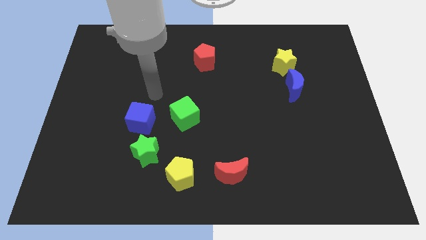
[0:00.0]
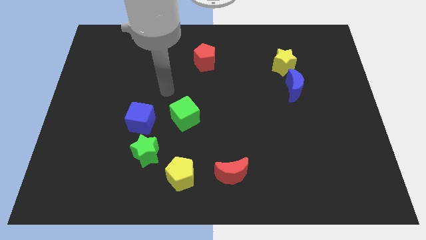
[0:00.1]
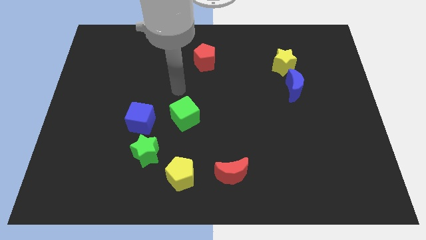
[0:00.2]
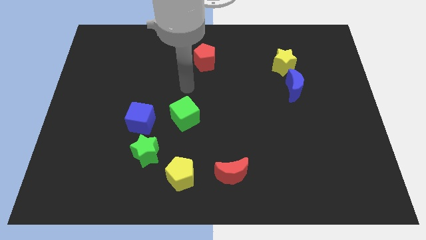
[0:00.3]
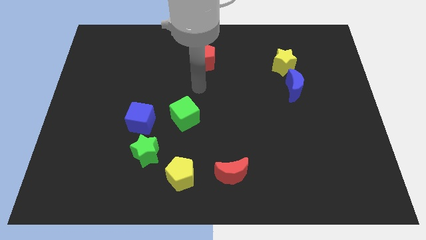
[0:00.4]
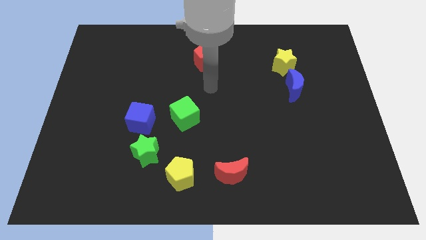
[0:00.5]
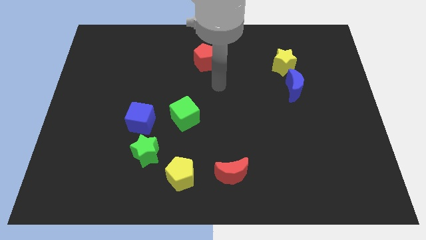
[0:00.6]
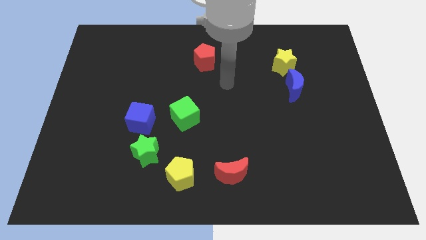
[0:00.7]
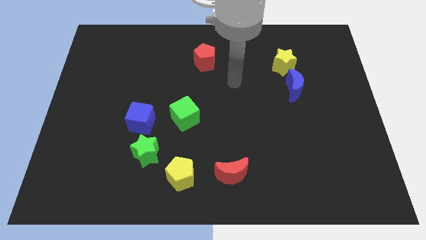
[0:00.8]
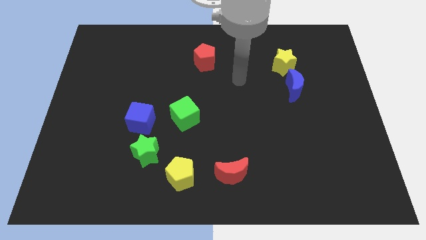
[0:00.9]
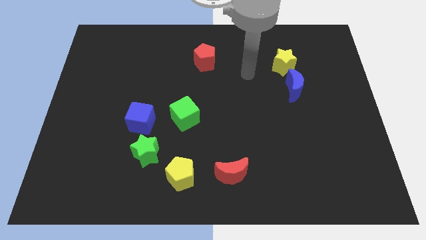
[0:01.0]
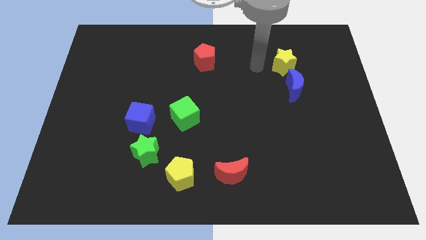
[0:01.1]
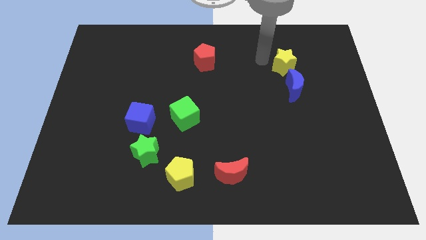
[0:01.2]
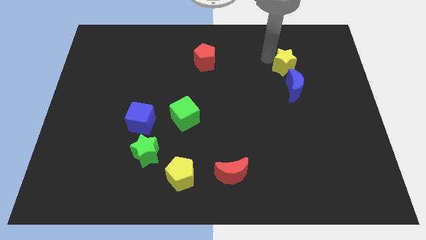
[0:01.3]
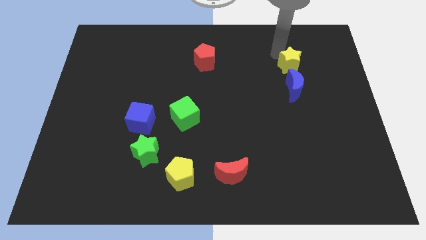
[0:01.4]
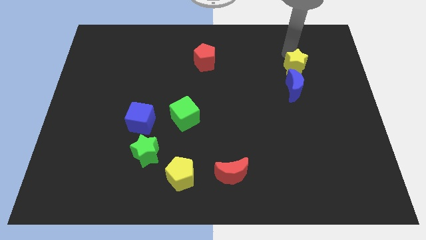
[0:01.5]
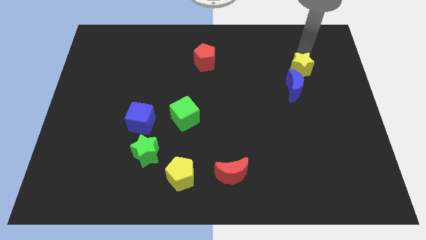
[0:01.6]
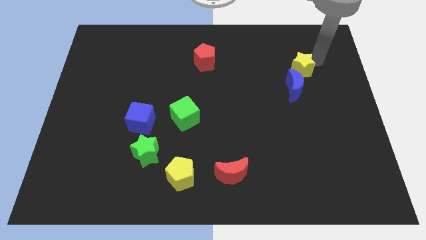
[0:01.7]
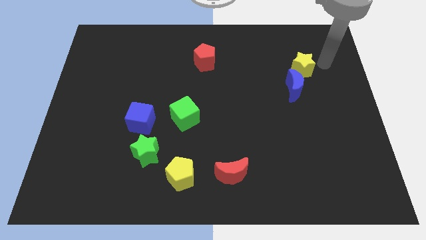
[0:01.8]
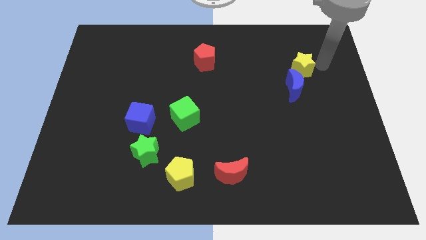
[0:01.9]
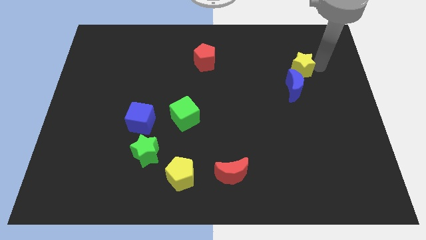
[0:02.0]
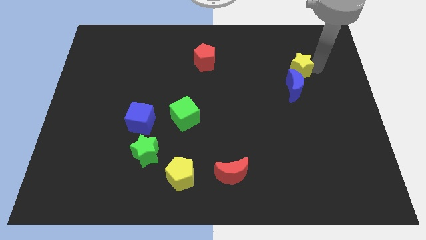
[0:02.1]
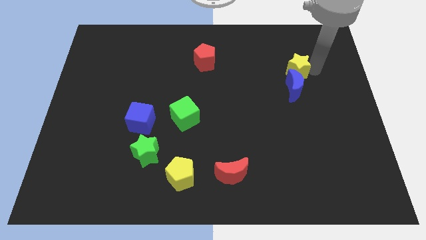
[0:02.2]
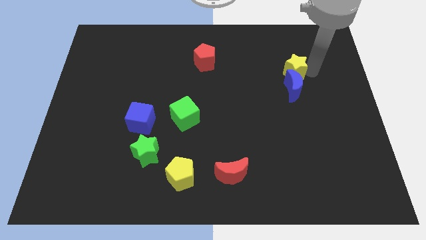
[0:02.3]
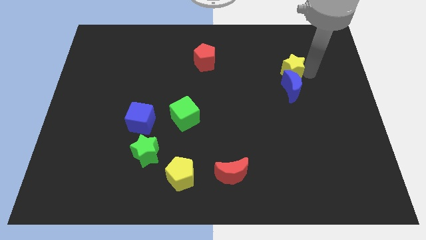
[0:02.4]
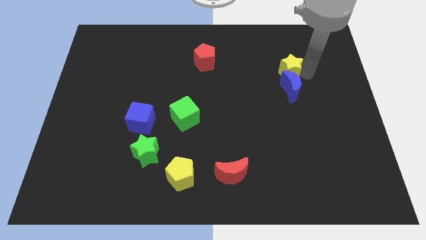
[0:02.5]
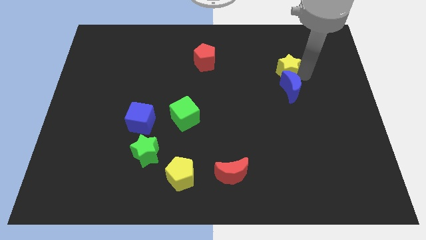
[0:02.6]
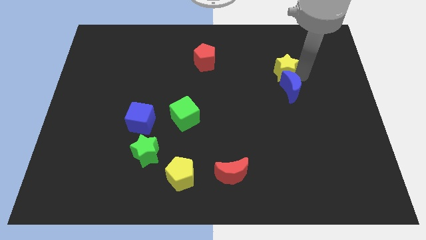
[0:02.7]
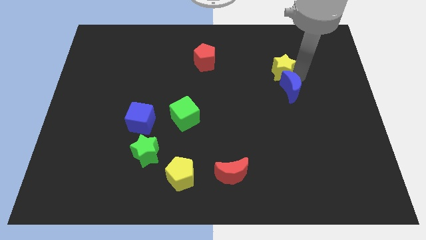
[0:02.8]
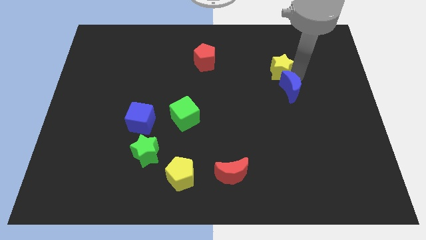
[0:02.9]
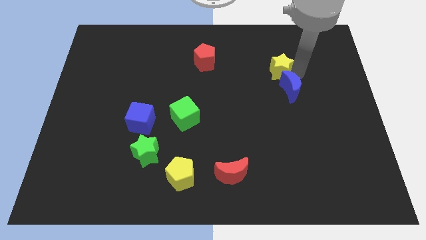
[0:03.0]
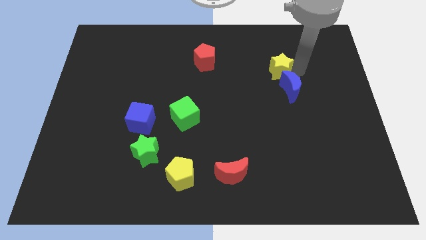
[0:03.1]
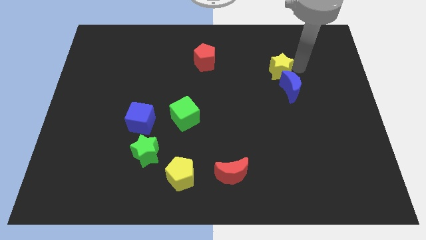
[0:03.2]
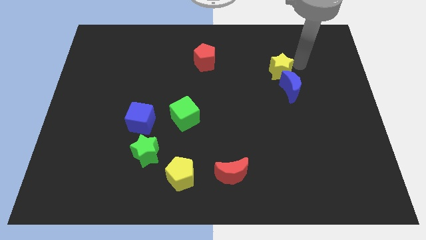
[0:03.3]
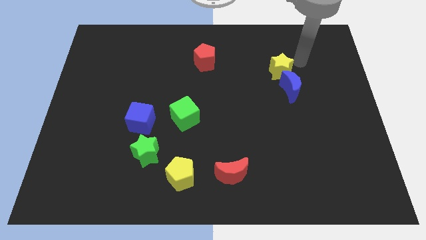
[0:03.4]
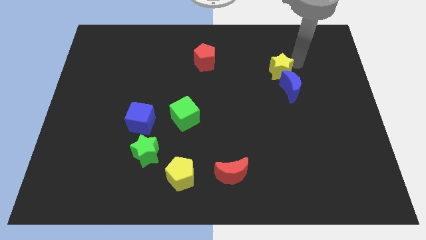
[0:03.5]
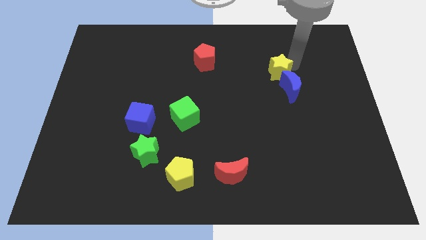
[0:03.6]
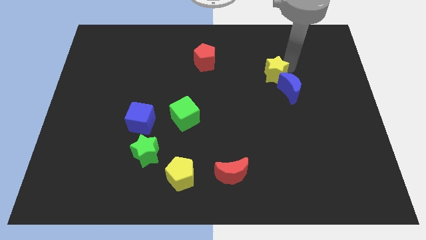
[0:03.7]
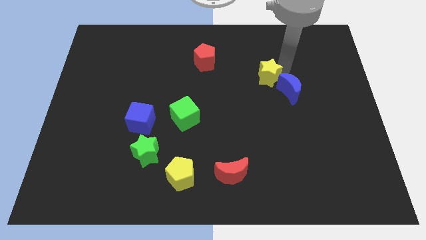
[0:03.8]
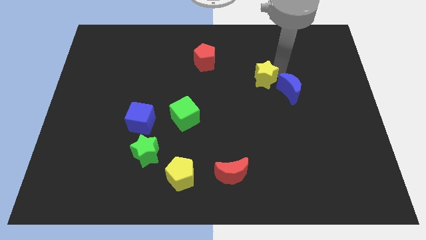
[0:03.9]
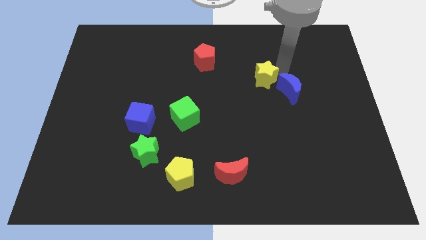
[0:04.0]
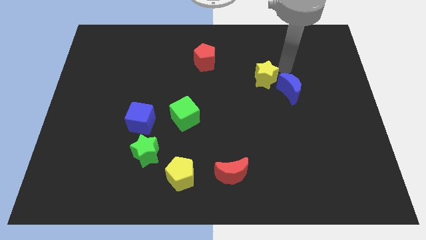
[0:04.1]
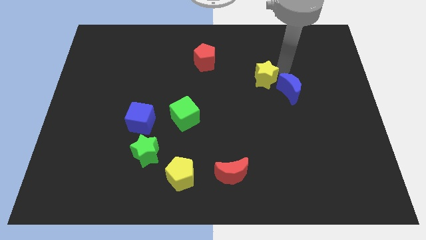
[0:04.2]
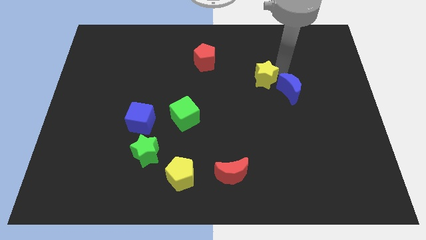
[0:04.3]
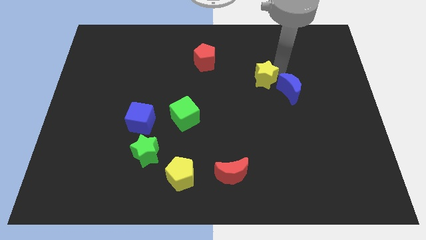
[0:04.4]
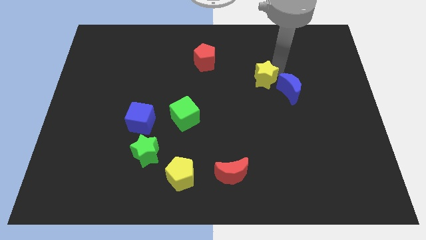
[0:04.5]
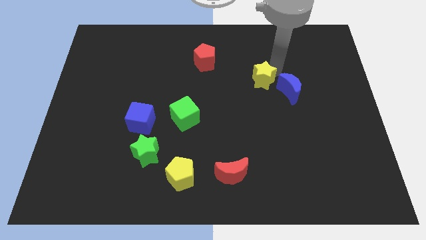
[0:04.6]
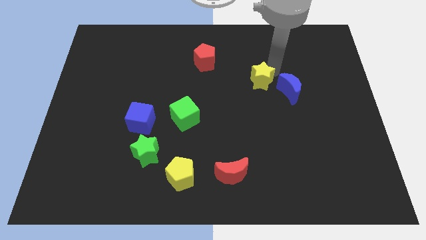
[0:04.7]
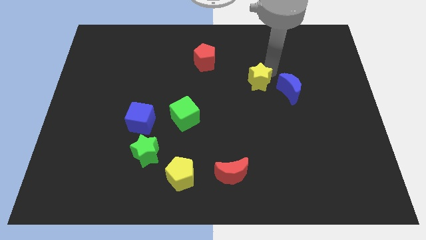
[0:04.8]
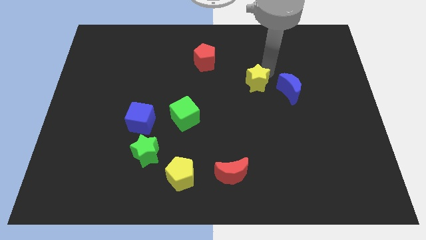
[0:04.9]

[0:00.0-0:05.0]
slide the yellow star to the center of the board

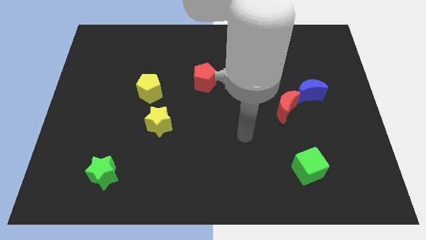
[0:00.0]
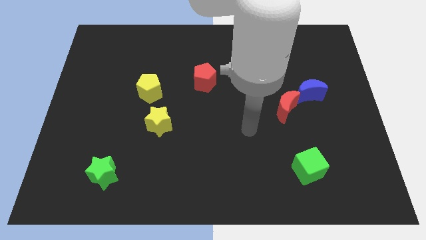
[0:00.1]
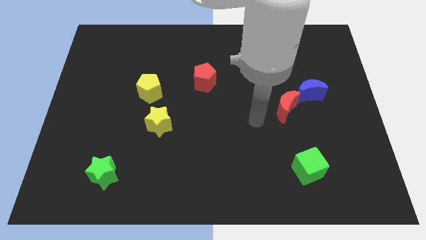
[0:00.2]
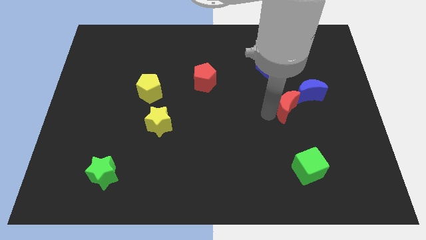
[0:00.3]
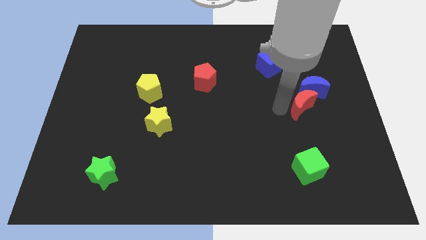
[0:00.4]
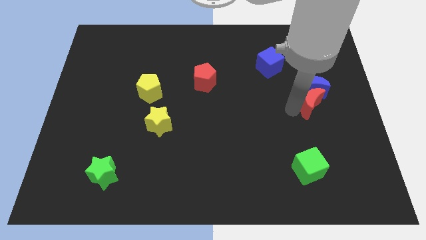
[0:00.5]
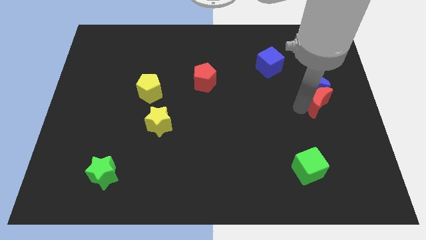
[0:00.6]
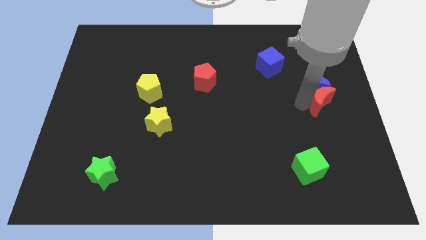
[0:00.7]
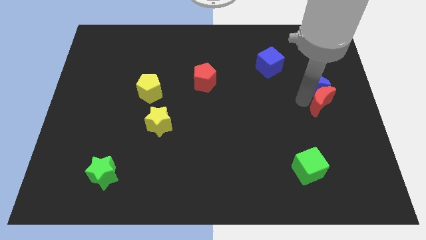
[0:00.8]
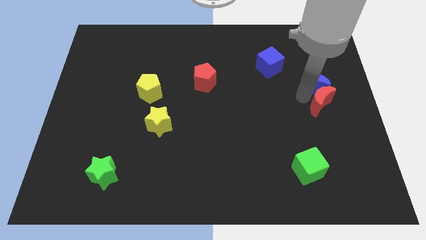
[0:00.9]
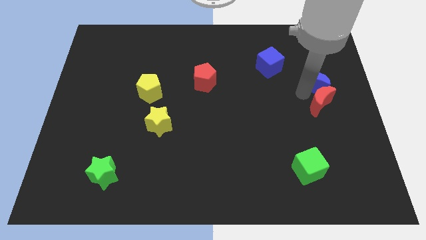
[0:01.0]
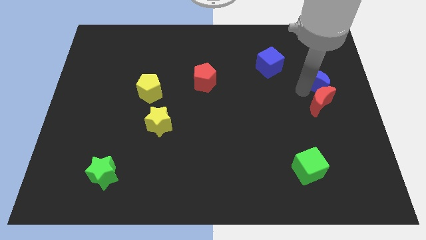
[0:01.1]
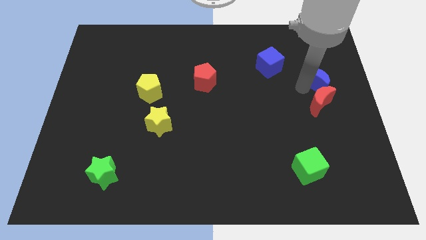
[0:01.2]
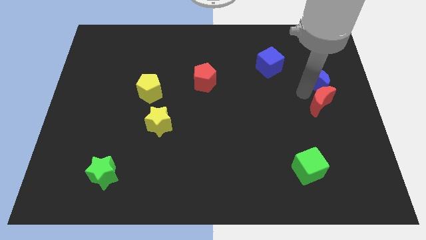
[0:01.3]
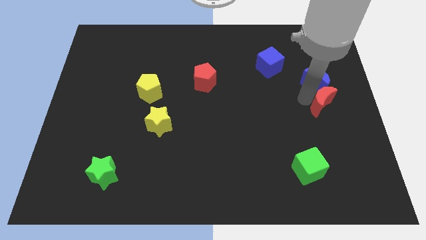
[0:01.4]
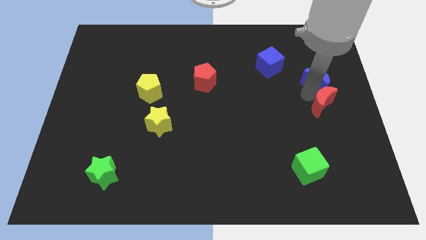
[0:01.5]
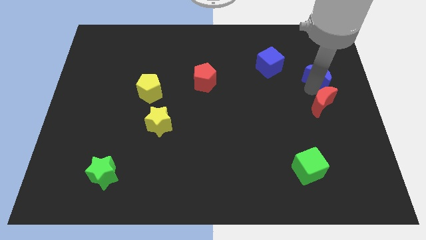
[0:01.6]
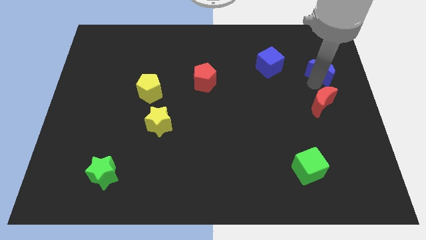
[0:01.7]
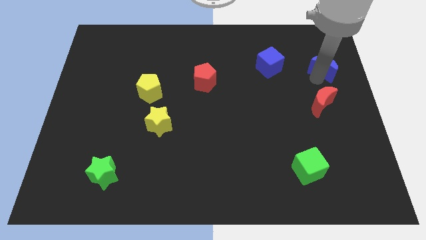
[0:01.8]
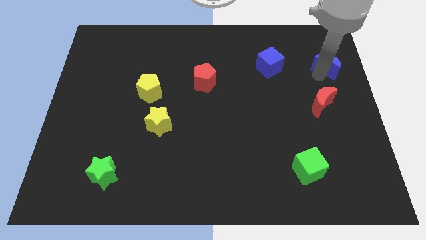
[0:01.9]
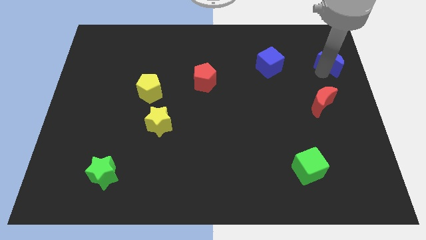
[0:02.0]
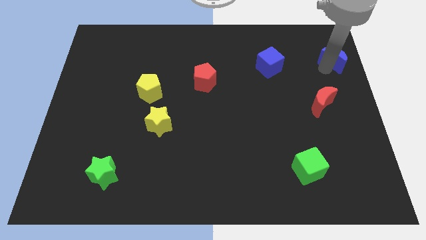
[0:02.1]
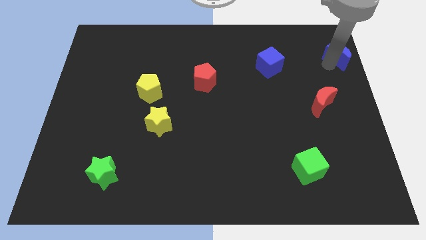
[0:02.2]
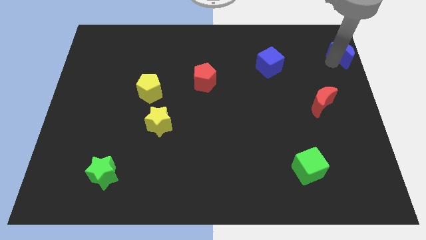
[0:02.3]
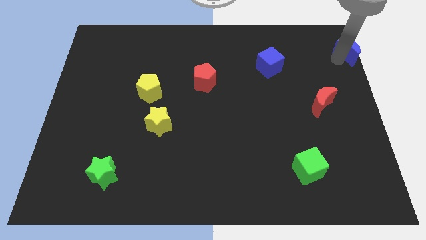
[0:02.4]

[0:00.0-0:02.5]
put the blue moon to the top right of the board
